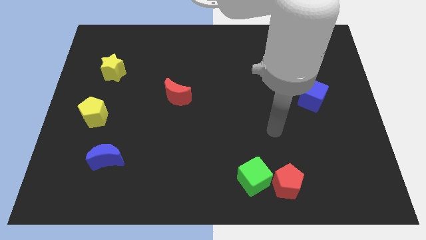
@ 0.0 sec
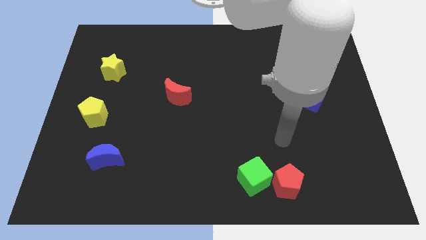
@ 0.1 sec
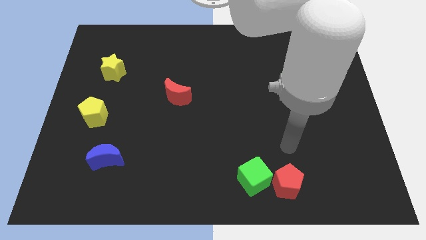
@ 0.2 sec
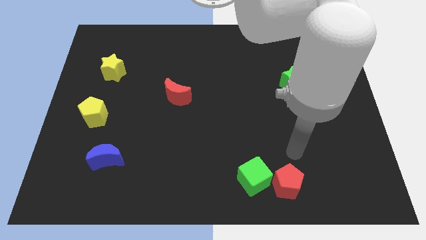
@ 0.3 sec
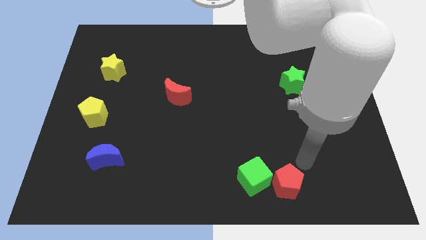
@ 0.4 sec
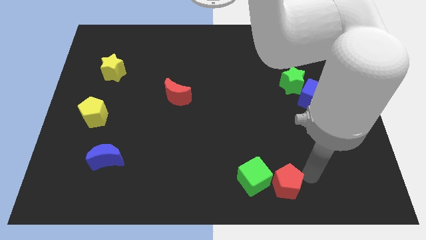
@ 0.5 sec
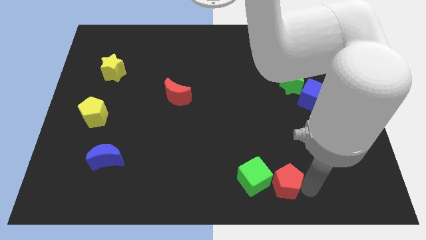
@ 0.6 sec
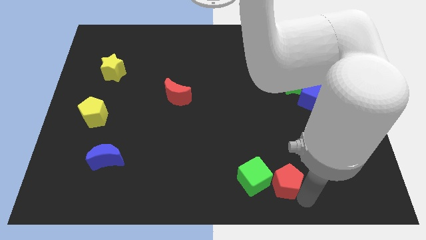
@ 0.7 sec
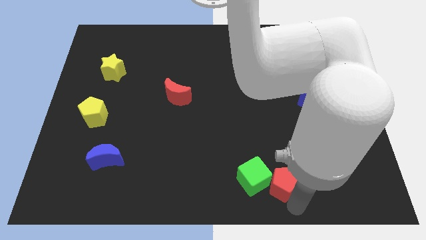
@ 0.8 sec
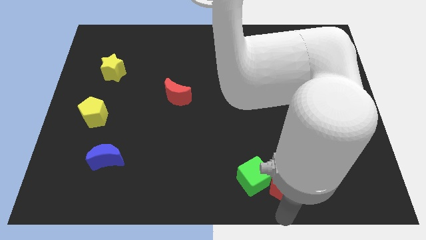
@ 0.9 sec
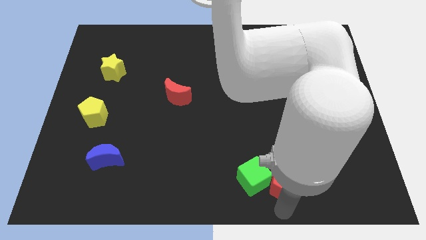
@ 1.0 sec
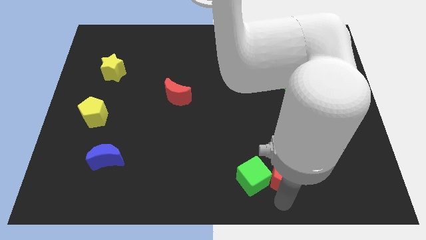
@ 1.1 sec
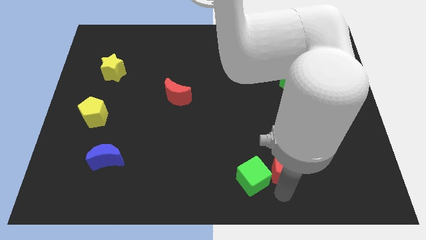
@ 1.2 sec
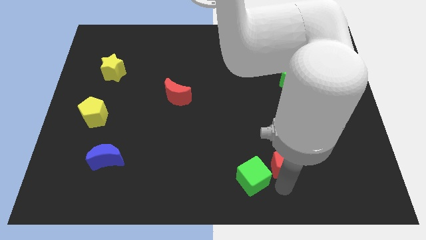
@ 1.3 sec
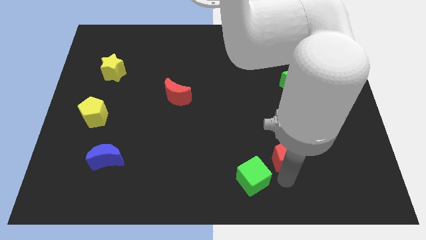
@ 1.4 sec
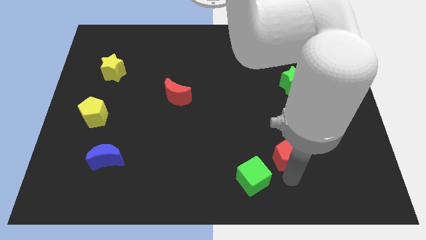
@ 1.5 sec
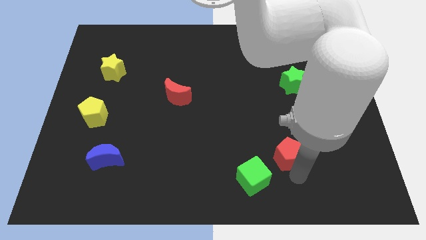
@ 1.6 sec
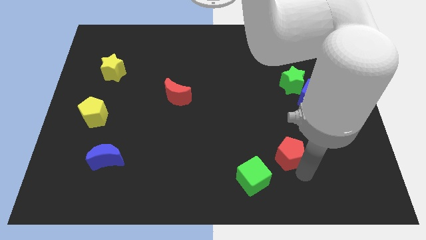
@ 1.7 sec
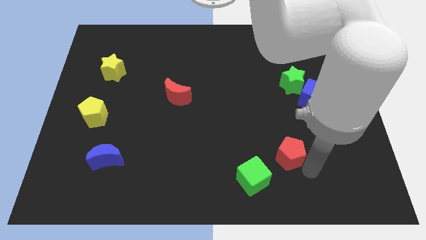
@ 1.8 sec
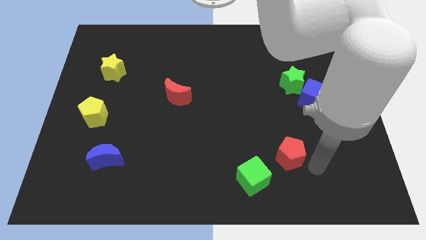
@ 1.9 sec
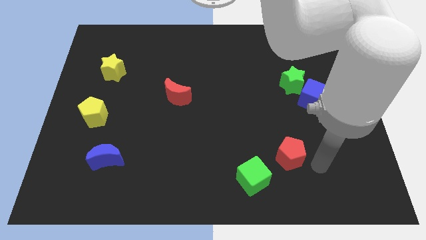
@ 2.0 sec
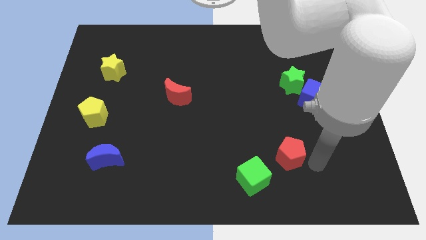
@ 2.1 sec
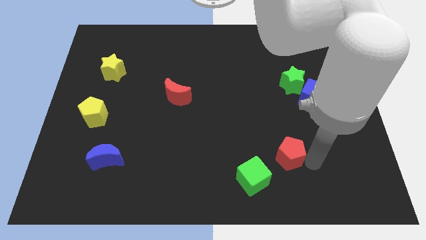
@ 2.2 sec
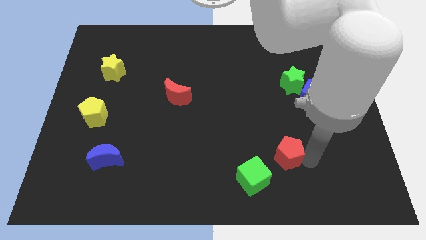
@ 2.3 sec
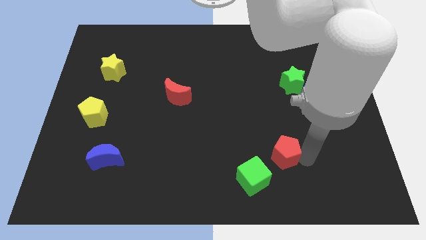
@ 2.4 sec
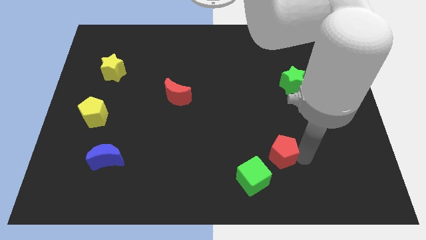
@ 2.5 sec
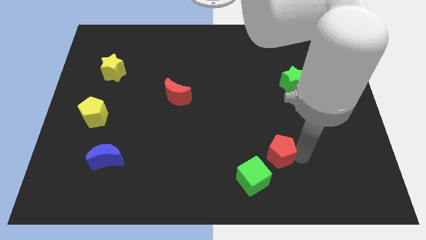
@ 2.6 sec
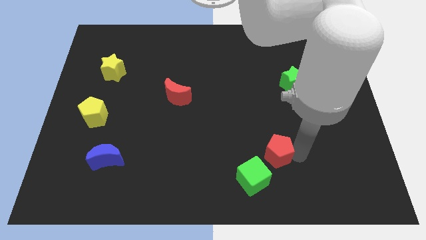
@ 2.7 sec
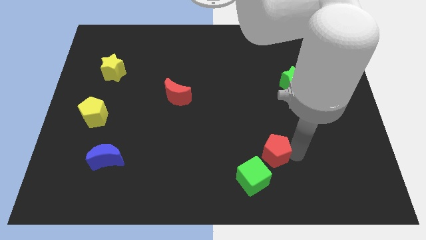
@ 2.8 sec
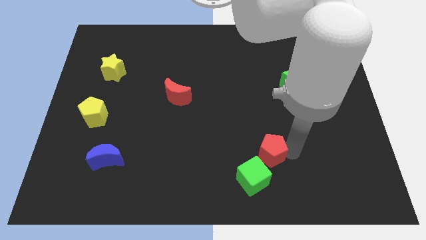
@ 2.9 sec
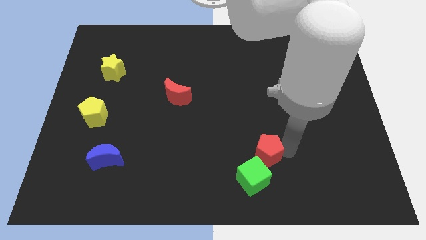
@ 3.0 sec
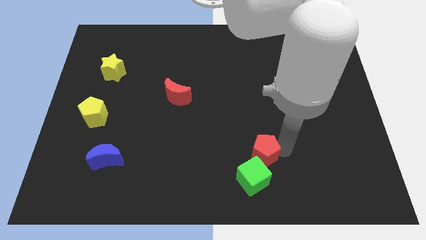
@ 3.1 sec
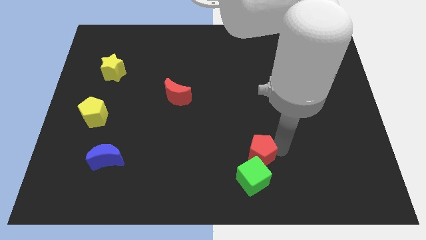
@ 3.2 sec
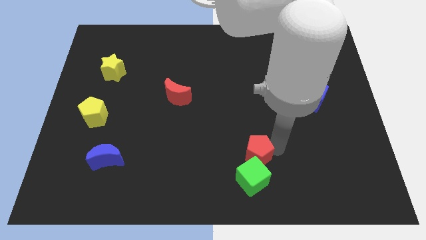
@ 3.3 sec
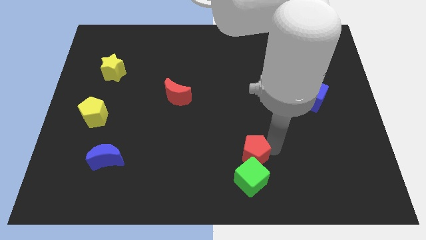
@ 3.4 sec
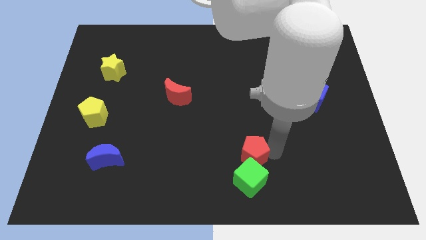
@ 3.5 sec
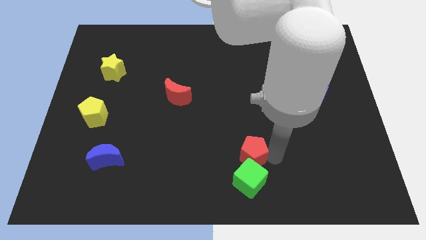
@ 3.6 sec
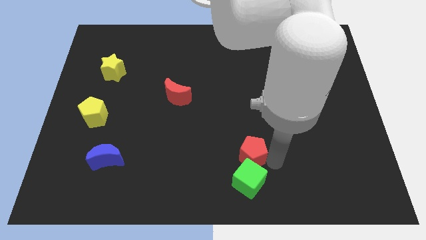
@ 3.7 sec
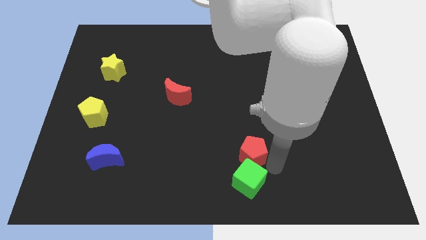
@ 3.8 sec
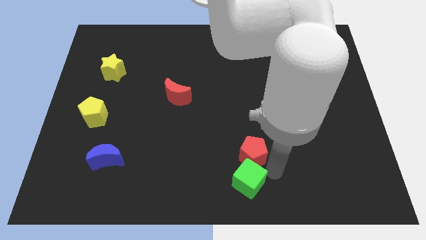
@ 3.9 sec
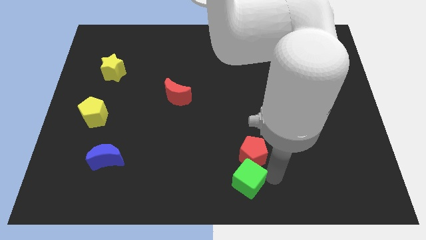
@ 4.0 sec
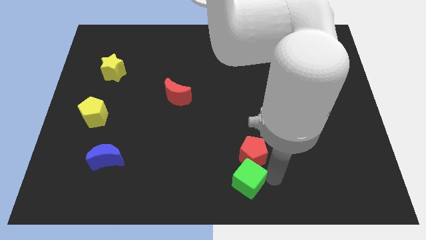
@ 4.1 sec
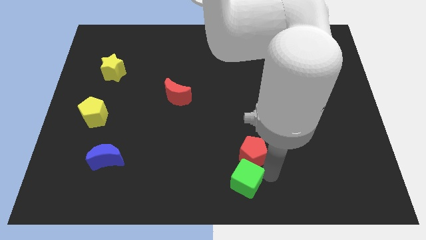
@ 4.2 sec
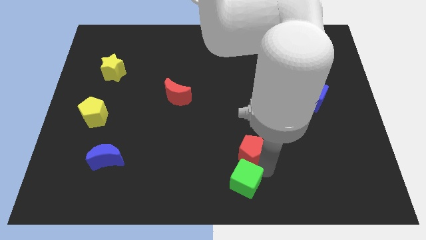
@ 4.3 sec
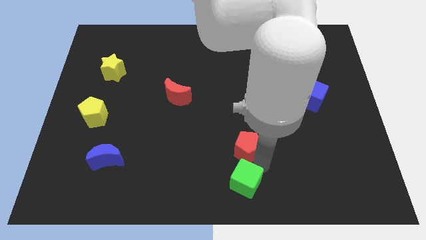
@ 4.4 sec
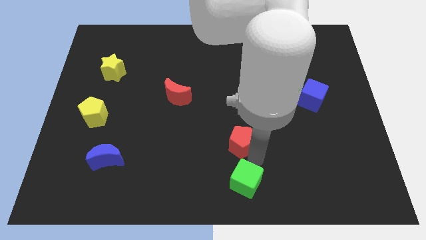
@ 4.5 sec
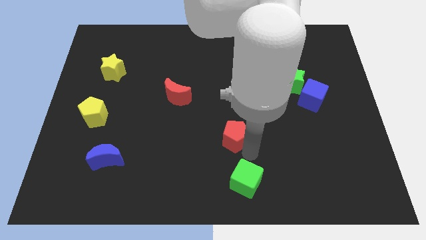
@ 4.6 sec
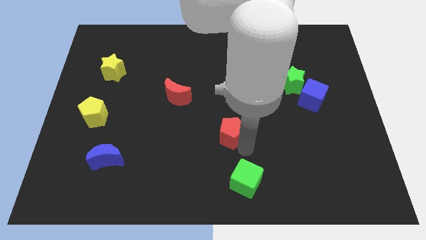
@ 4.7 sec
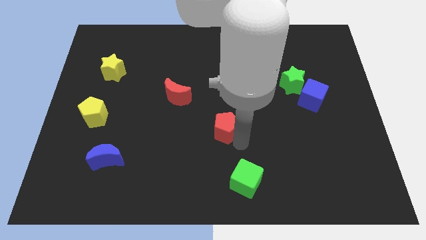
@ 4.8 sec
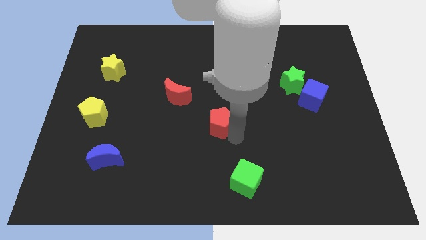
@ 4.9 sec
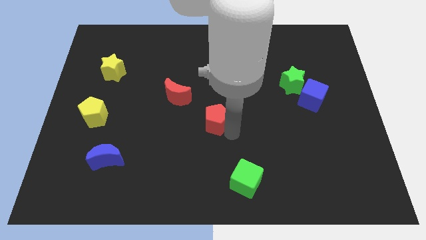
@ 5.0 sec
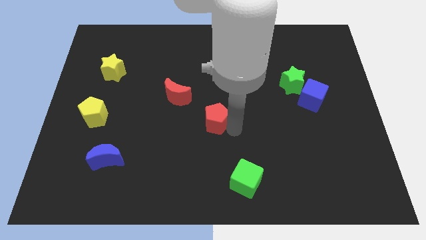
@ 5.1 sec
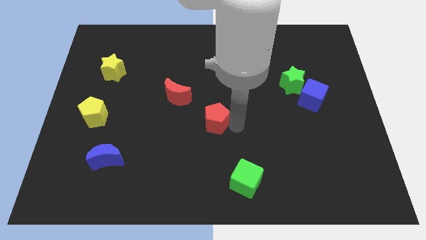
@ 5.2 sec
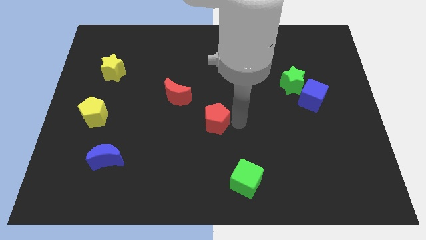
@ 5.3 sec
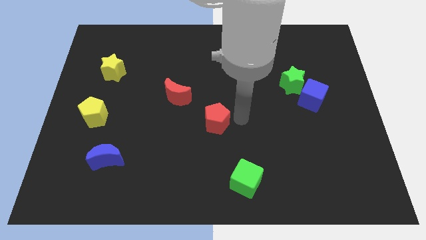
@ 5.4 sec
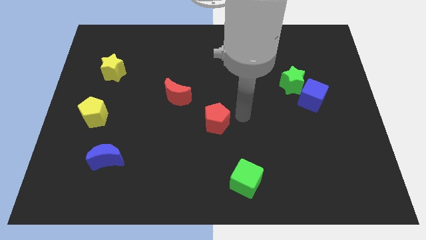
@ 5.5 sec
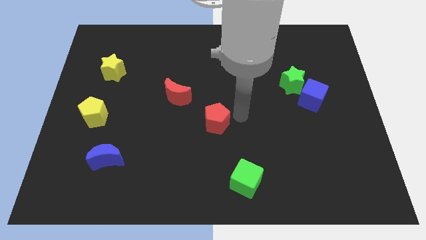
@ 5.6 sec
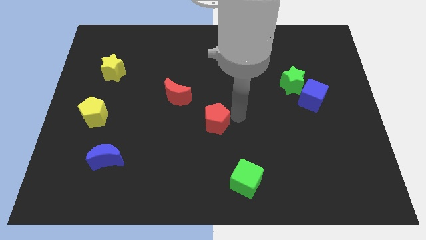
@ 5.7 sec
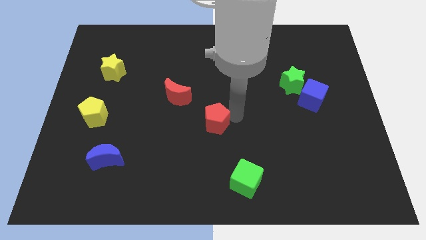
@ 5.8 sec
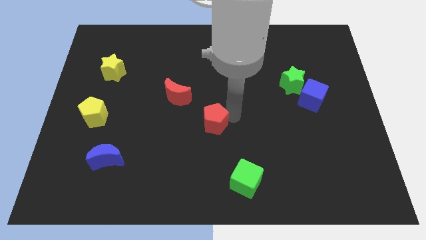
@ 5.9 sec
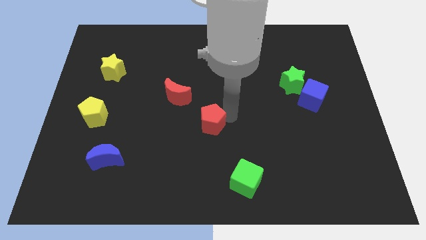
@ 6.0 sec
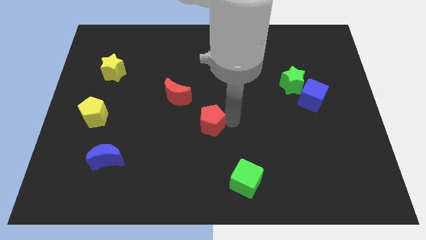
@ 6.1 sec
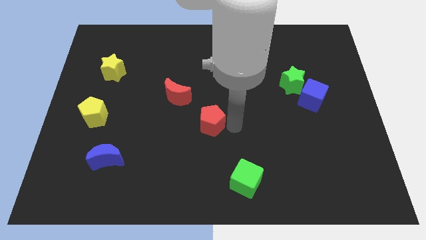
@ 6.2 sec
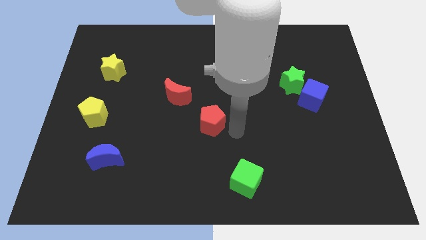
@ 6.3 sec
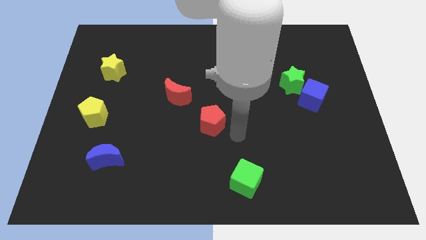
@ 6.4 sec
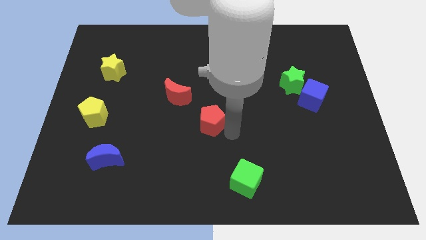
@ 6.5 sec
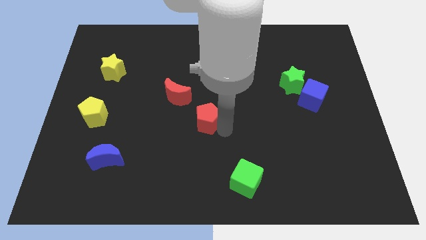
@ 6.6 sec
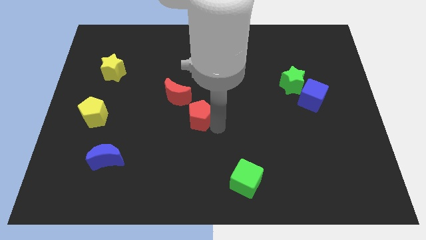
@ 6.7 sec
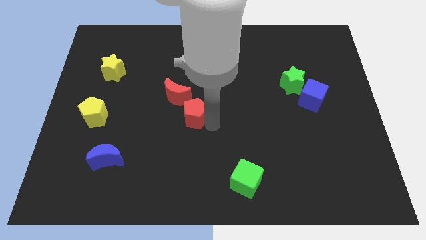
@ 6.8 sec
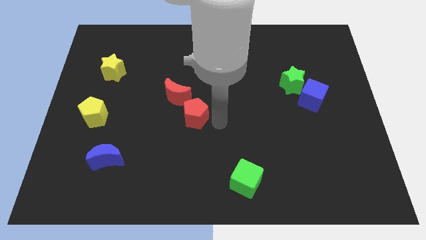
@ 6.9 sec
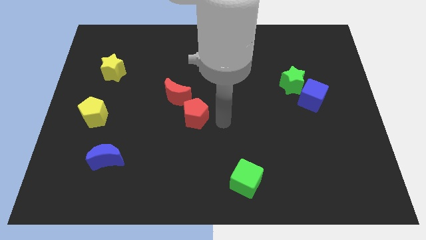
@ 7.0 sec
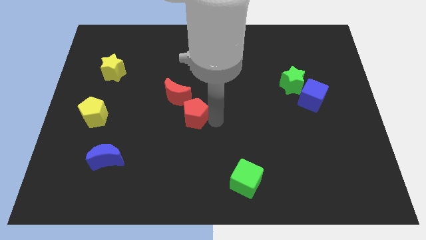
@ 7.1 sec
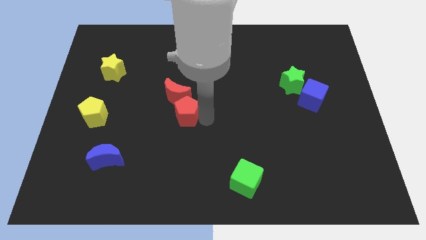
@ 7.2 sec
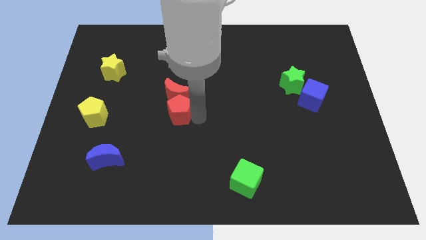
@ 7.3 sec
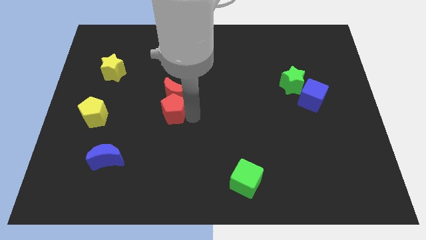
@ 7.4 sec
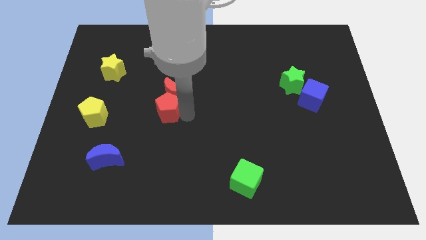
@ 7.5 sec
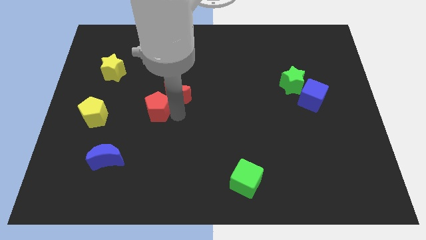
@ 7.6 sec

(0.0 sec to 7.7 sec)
move the red pentagon just left of the red moon
